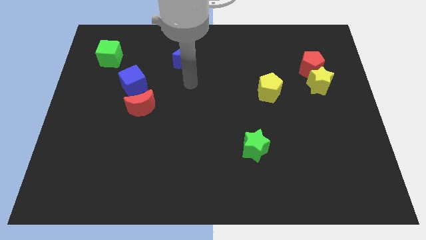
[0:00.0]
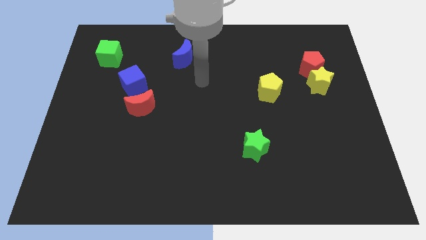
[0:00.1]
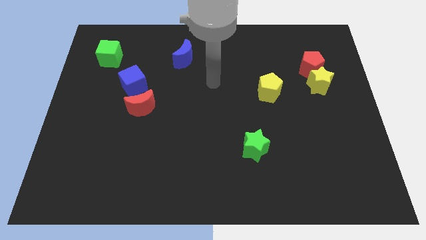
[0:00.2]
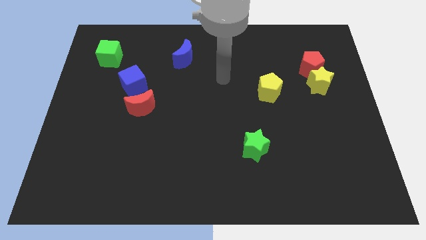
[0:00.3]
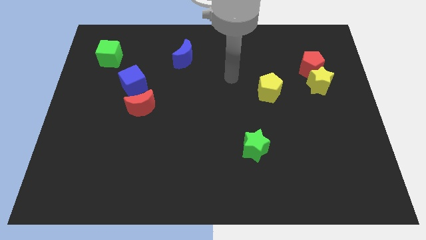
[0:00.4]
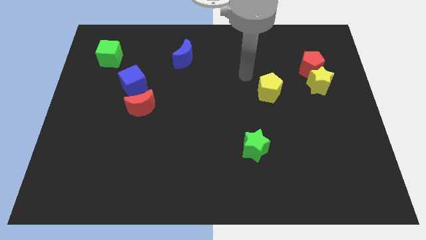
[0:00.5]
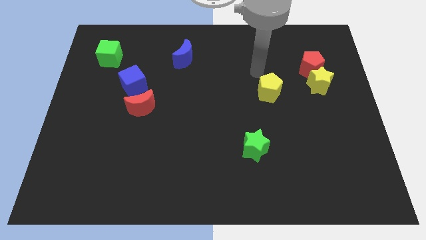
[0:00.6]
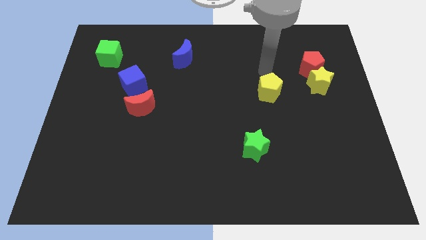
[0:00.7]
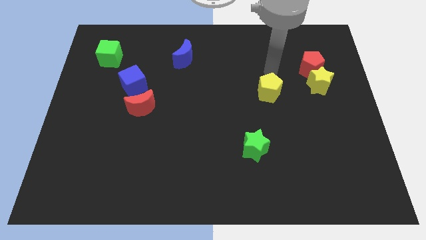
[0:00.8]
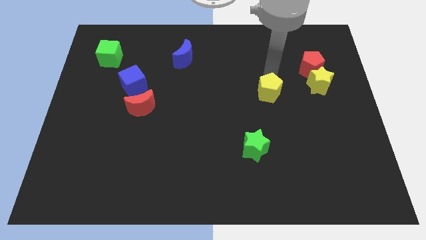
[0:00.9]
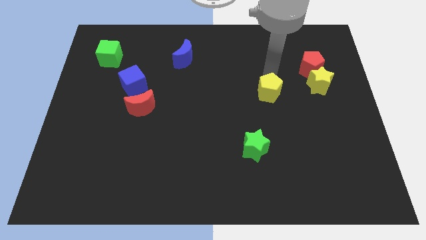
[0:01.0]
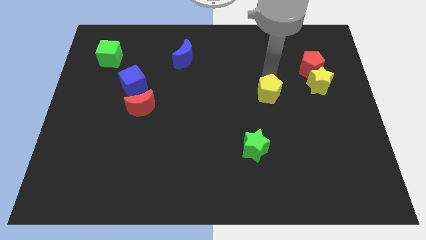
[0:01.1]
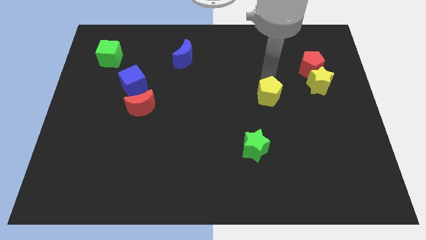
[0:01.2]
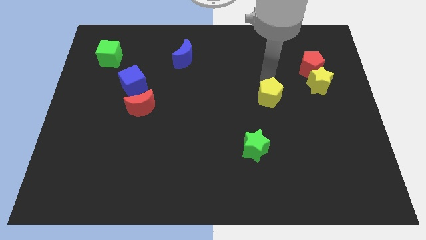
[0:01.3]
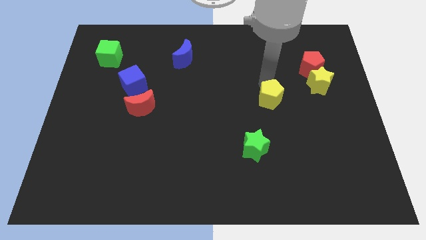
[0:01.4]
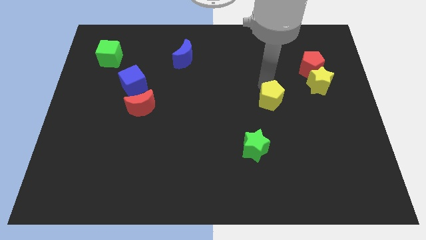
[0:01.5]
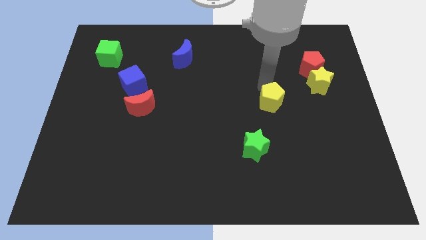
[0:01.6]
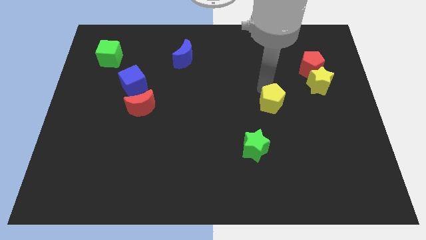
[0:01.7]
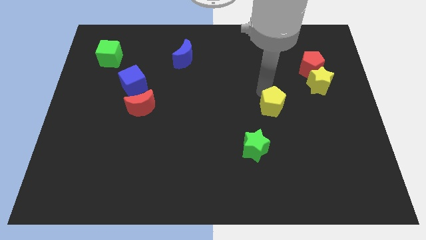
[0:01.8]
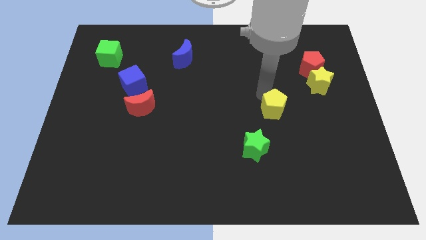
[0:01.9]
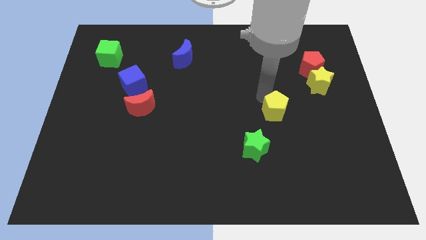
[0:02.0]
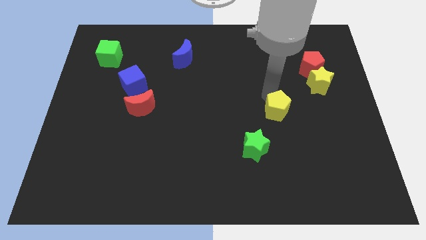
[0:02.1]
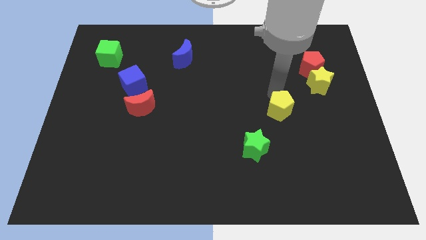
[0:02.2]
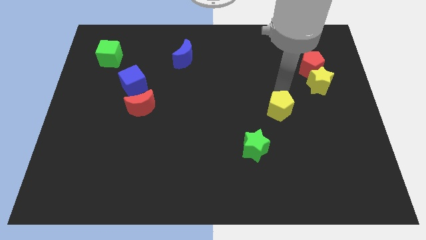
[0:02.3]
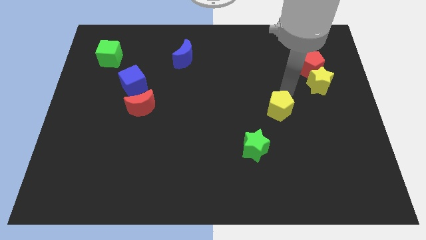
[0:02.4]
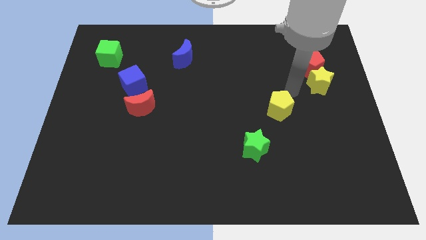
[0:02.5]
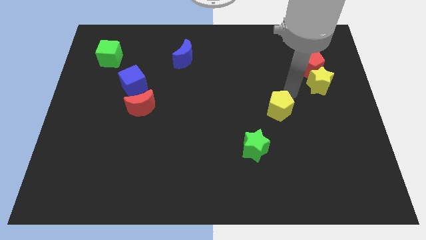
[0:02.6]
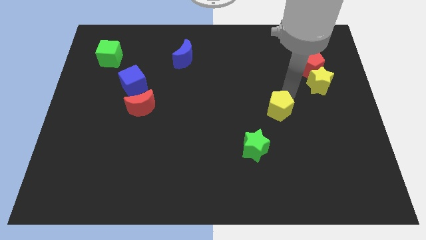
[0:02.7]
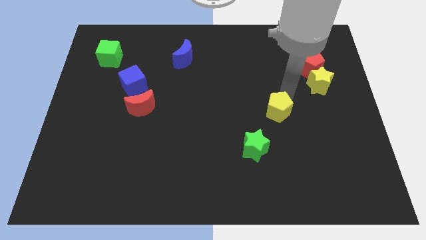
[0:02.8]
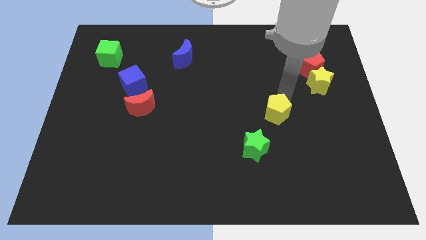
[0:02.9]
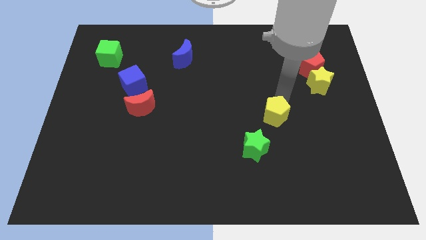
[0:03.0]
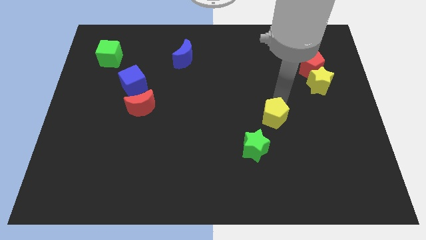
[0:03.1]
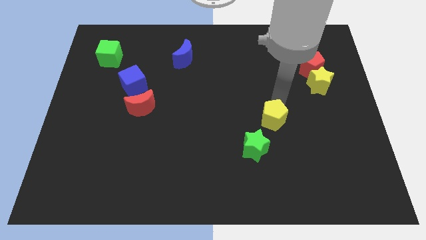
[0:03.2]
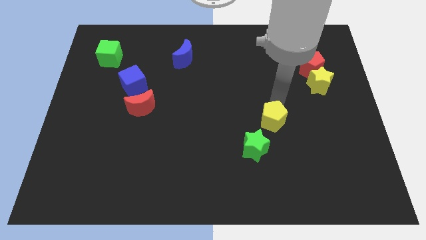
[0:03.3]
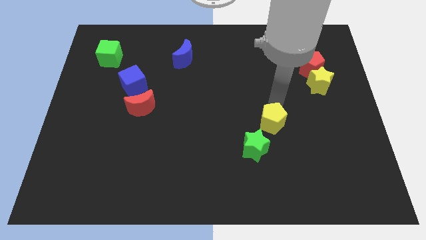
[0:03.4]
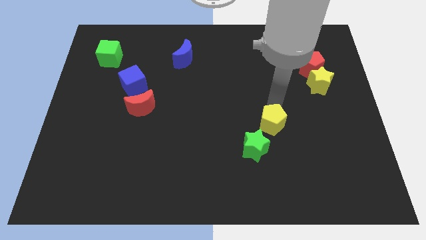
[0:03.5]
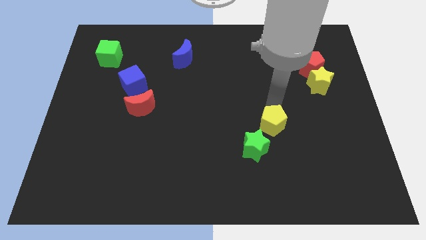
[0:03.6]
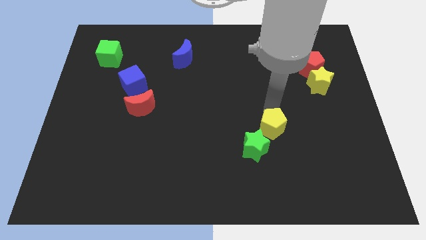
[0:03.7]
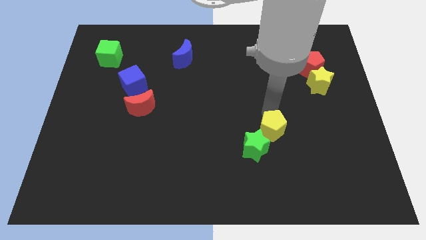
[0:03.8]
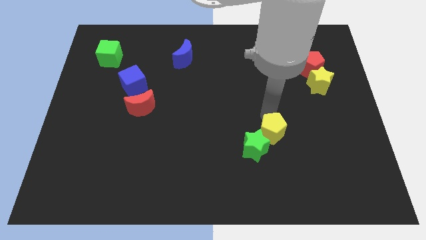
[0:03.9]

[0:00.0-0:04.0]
push the yellow pentagon next to the green star

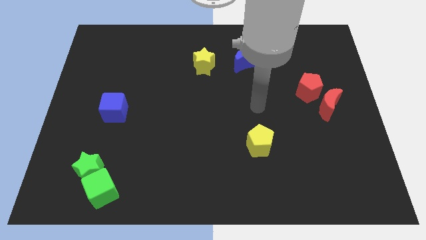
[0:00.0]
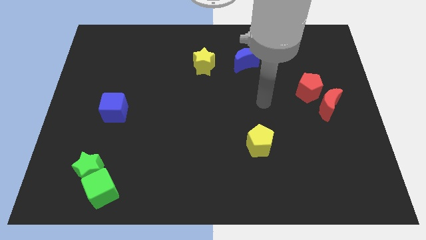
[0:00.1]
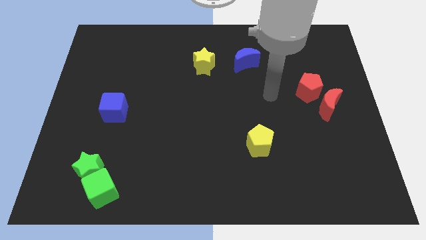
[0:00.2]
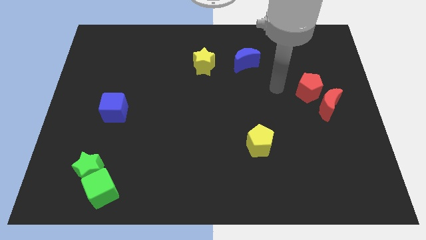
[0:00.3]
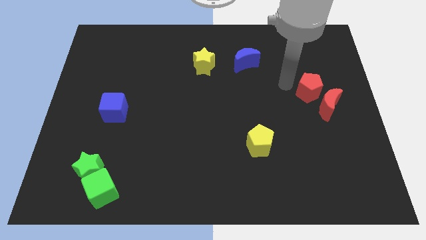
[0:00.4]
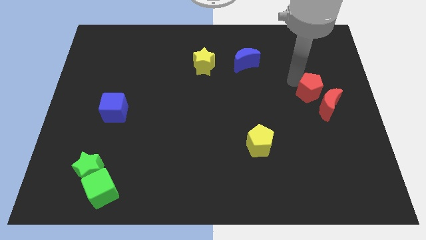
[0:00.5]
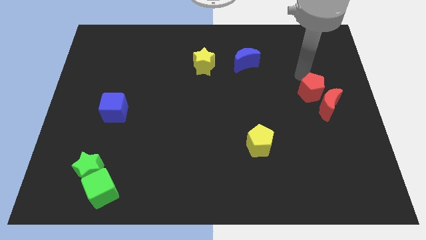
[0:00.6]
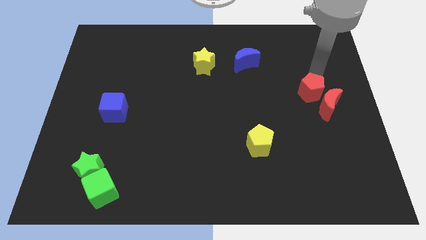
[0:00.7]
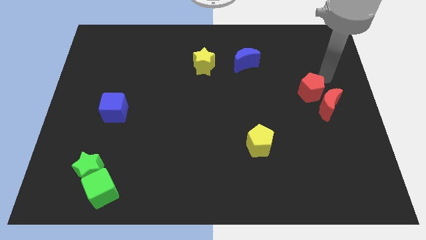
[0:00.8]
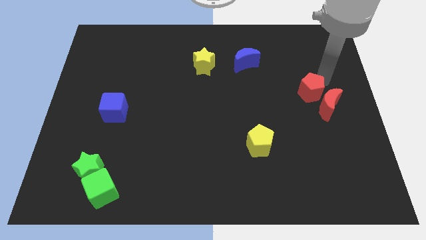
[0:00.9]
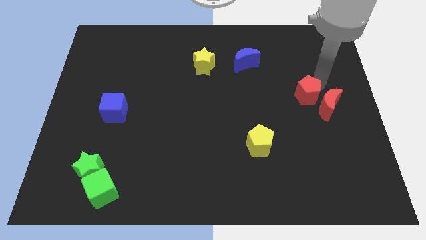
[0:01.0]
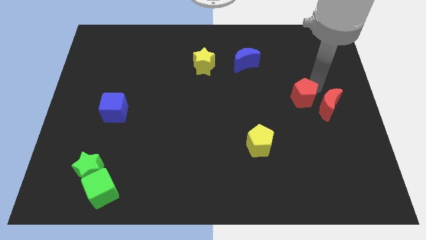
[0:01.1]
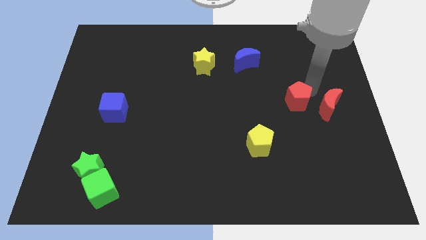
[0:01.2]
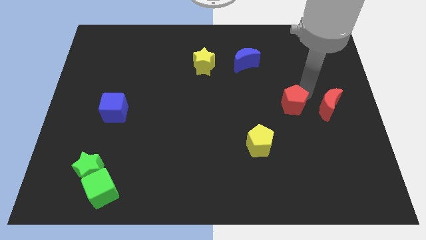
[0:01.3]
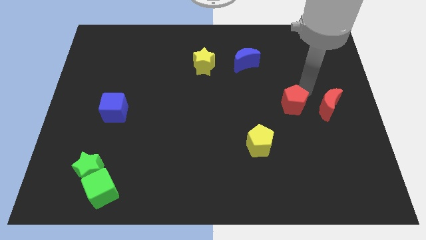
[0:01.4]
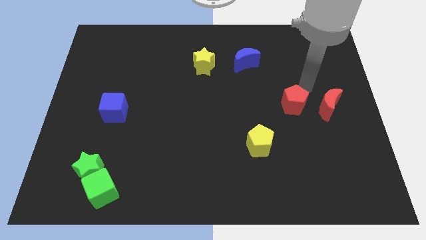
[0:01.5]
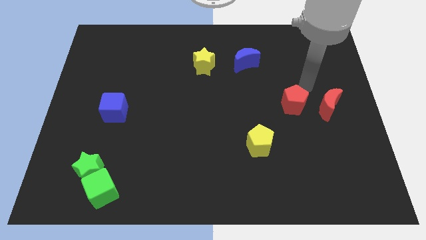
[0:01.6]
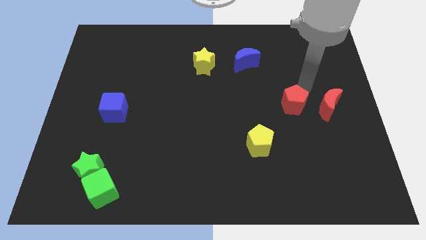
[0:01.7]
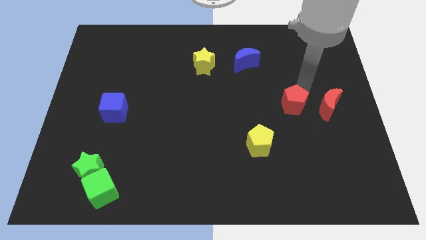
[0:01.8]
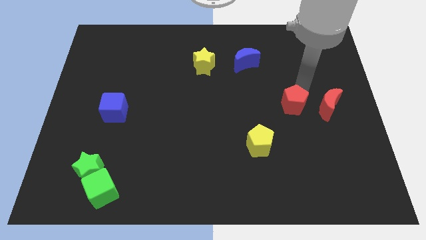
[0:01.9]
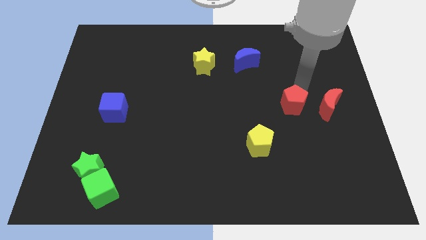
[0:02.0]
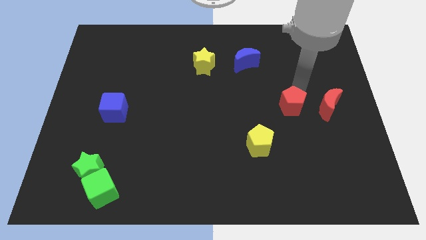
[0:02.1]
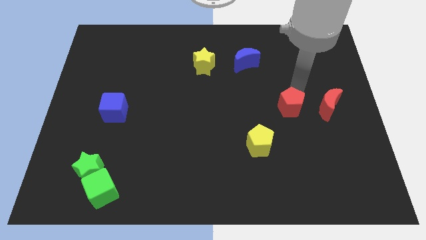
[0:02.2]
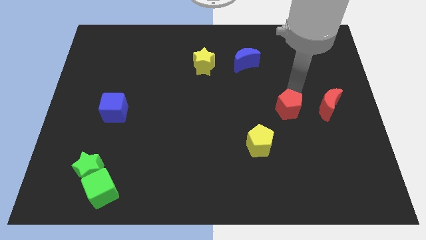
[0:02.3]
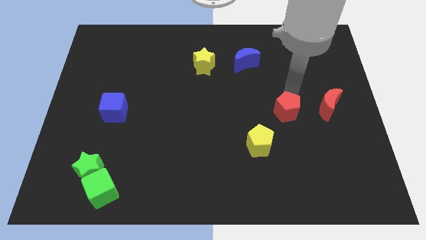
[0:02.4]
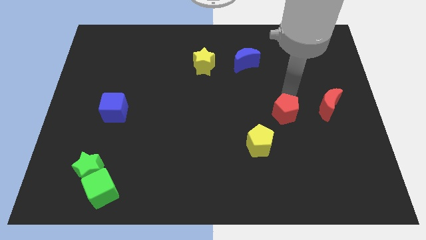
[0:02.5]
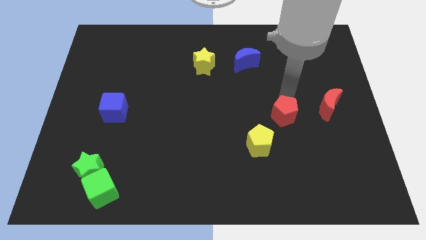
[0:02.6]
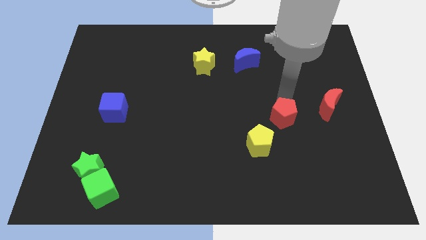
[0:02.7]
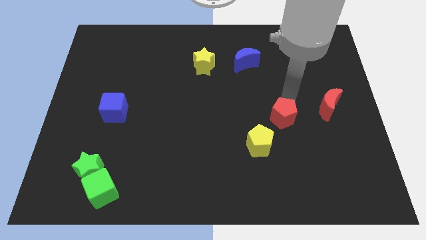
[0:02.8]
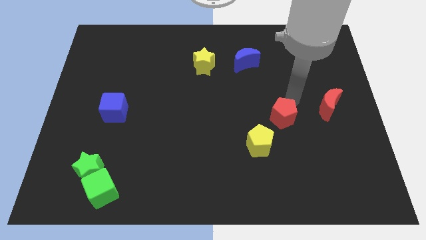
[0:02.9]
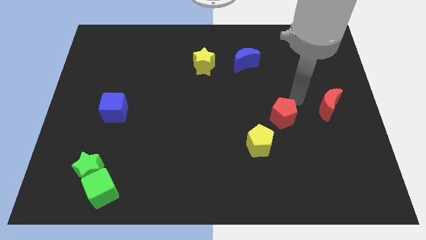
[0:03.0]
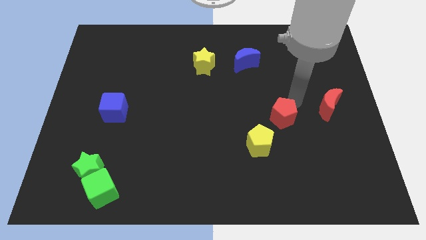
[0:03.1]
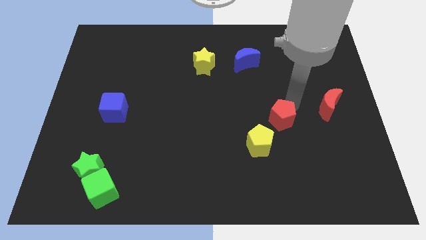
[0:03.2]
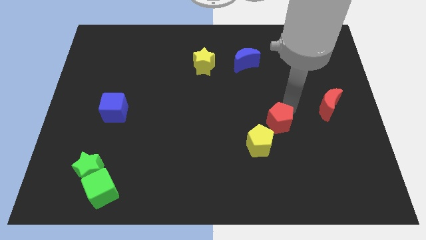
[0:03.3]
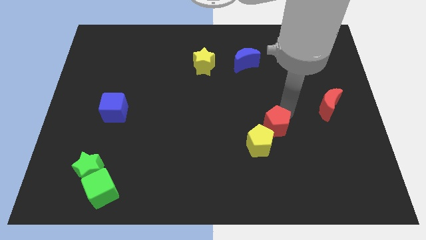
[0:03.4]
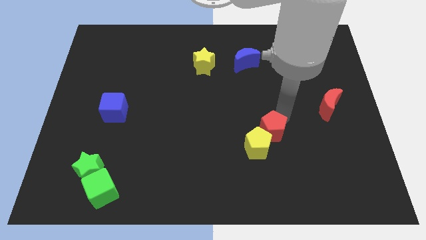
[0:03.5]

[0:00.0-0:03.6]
put the red pentagon next to the yellow pentagon

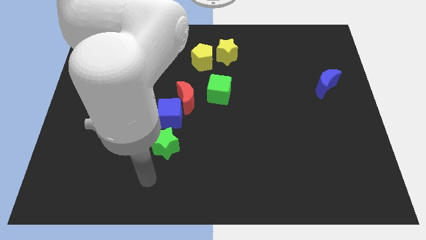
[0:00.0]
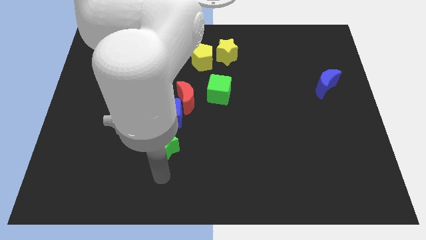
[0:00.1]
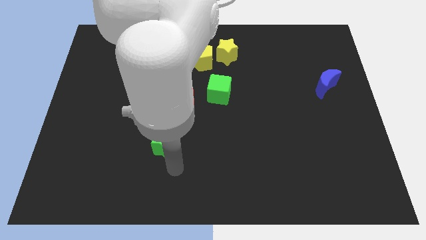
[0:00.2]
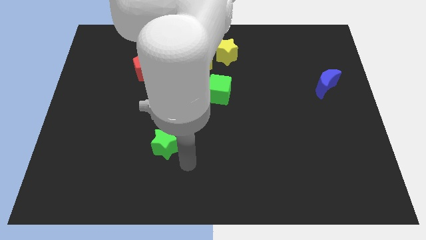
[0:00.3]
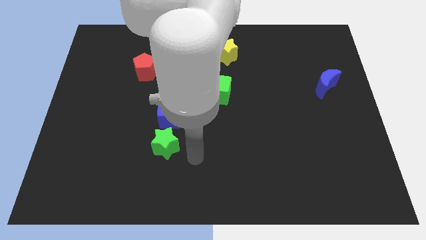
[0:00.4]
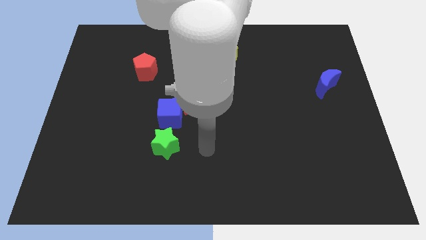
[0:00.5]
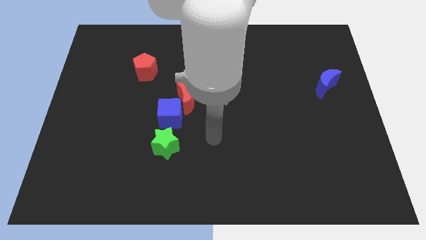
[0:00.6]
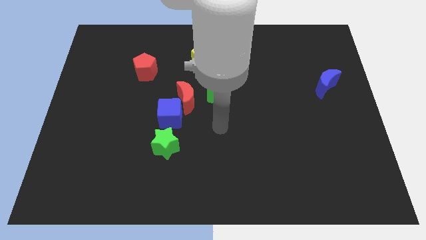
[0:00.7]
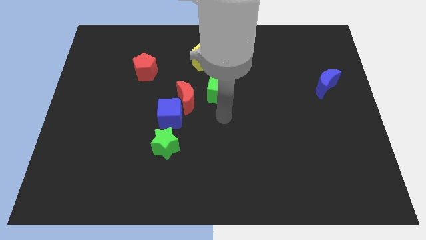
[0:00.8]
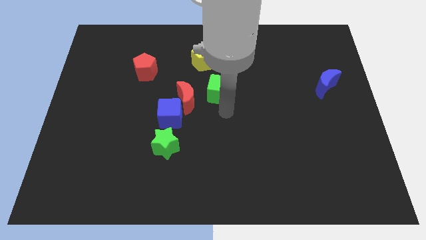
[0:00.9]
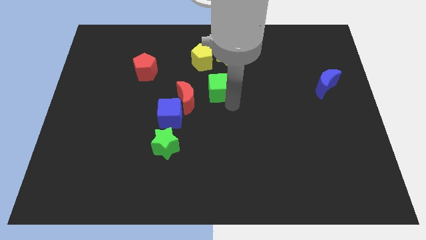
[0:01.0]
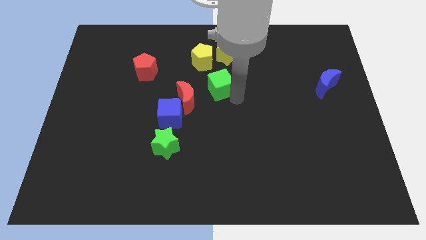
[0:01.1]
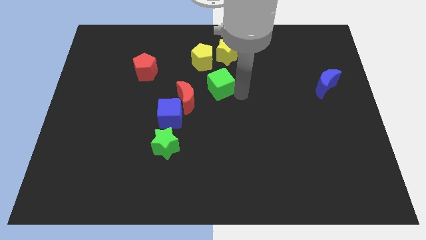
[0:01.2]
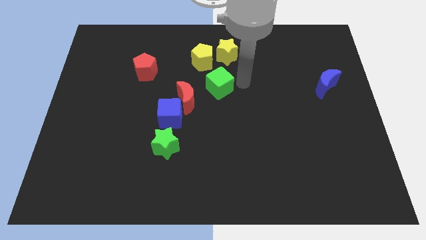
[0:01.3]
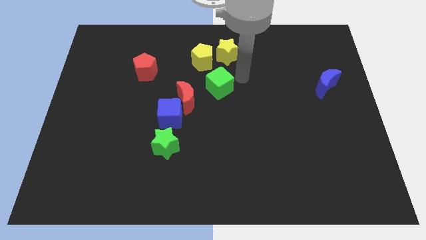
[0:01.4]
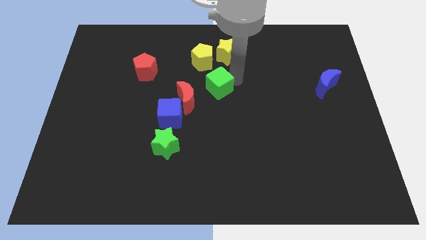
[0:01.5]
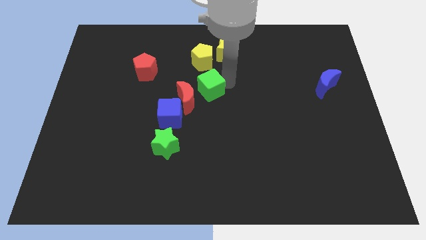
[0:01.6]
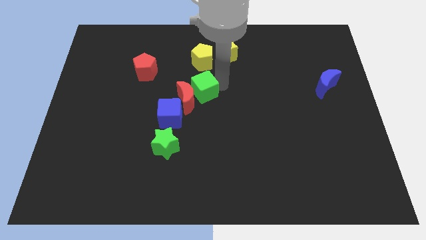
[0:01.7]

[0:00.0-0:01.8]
put the green cube close to the red moon
